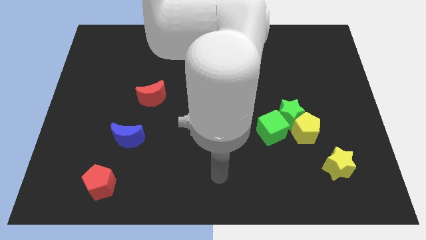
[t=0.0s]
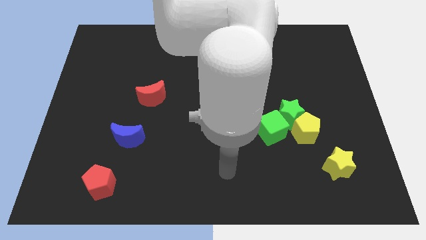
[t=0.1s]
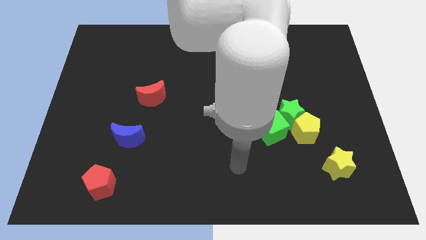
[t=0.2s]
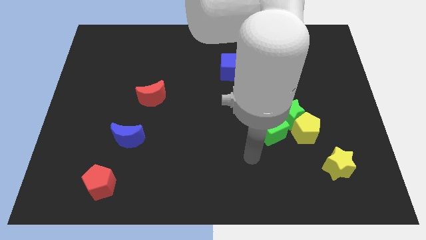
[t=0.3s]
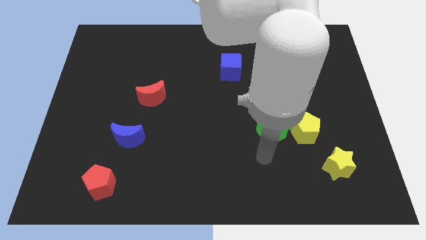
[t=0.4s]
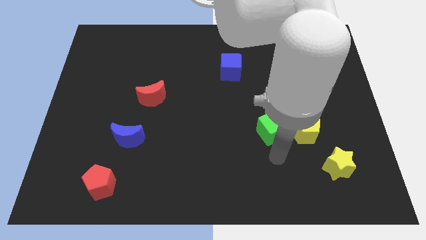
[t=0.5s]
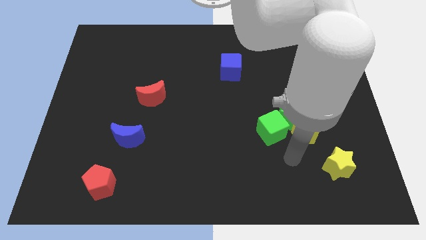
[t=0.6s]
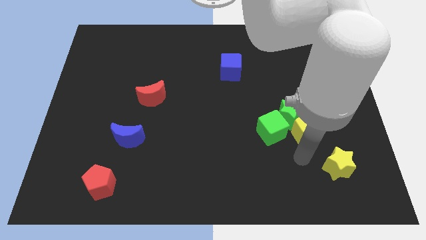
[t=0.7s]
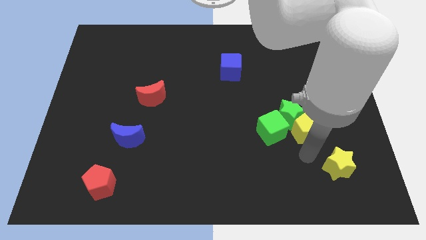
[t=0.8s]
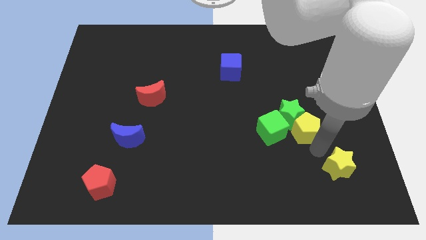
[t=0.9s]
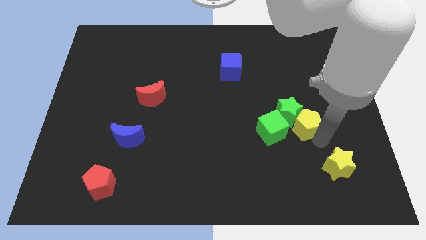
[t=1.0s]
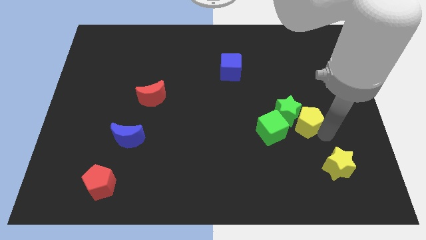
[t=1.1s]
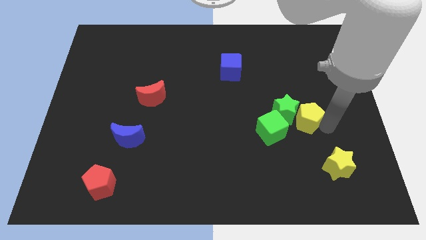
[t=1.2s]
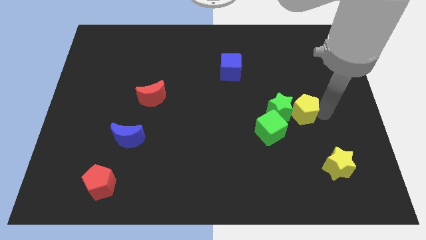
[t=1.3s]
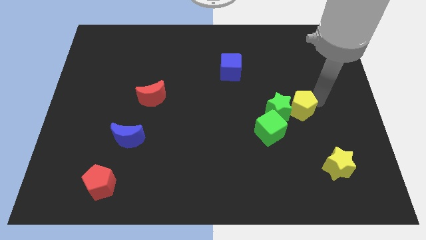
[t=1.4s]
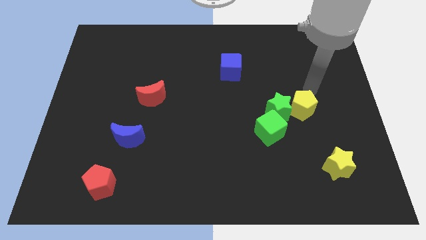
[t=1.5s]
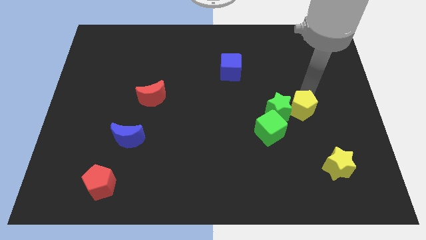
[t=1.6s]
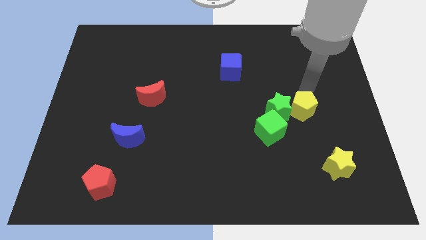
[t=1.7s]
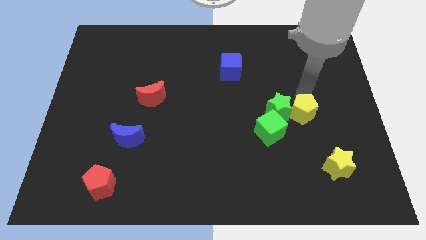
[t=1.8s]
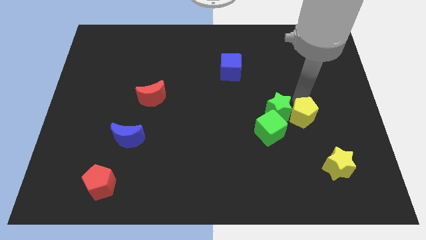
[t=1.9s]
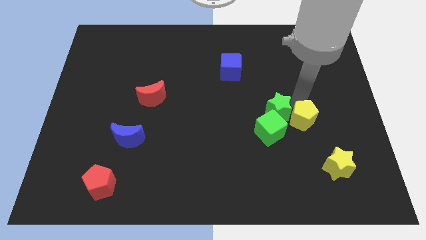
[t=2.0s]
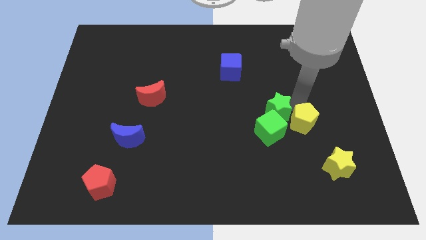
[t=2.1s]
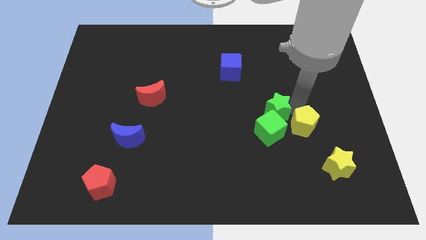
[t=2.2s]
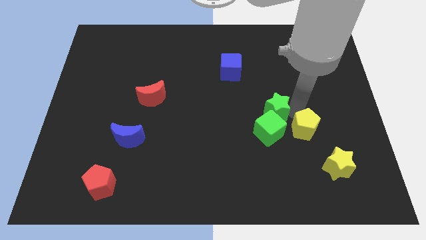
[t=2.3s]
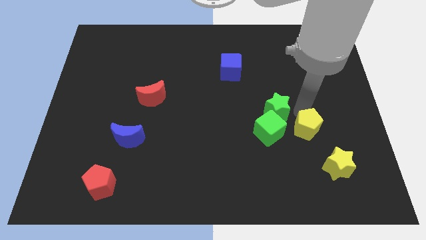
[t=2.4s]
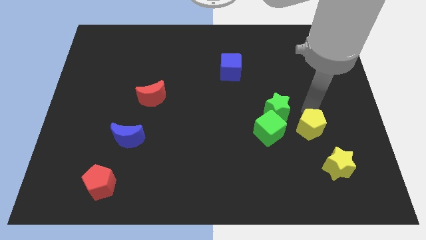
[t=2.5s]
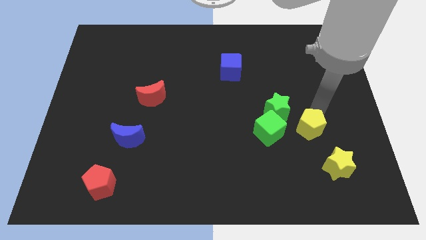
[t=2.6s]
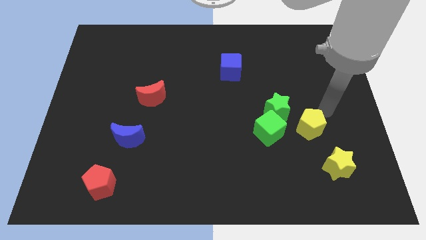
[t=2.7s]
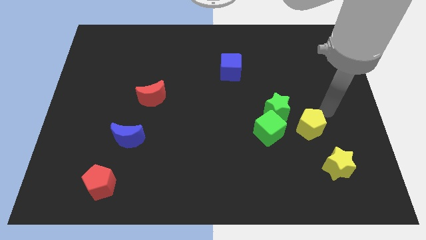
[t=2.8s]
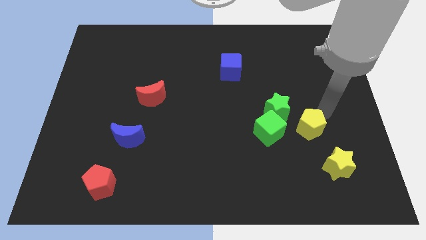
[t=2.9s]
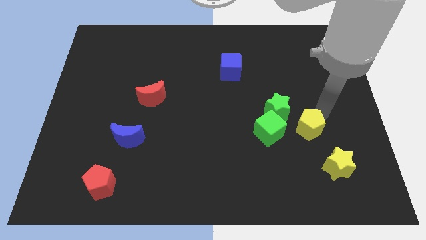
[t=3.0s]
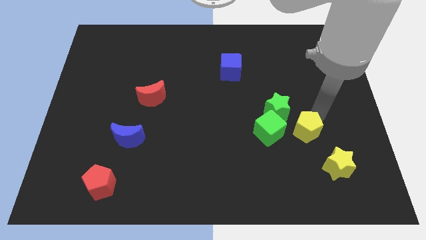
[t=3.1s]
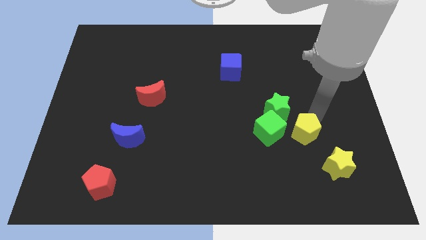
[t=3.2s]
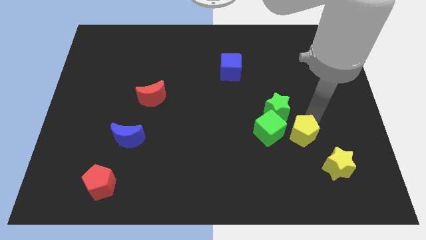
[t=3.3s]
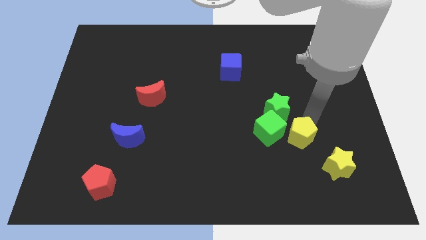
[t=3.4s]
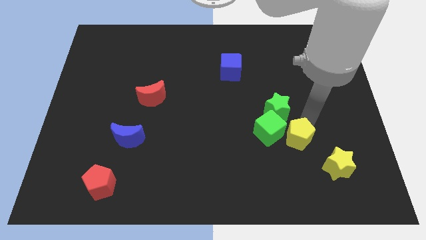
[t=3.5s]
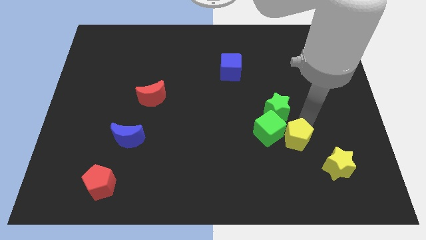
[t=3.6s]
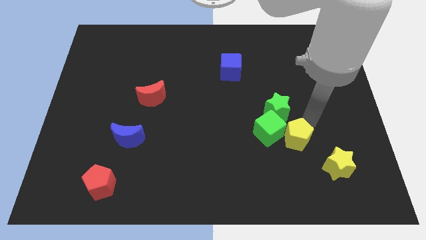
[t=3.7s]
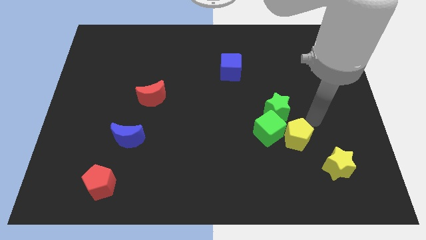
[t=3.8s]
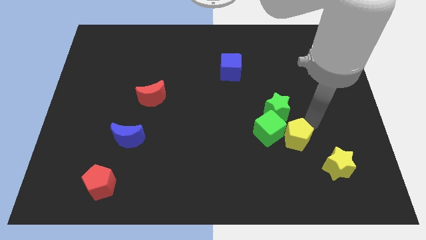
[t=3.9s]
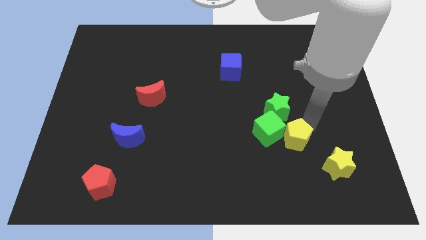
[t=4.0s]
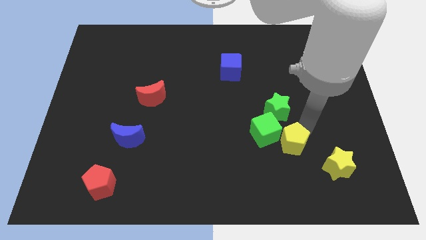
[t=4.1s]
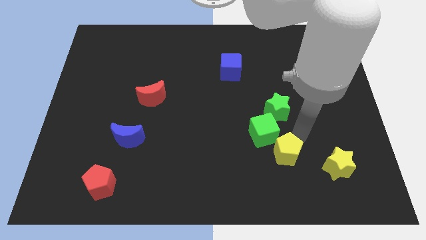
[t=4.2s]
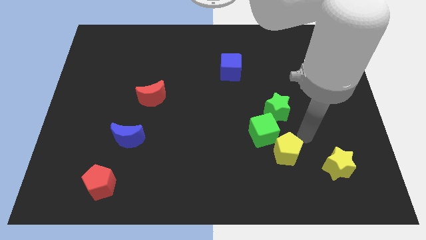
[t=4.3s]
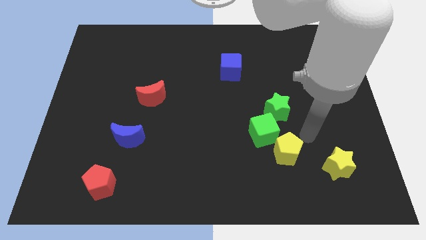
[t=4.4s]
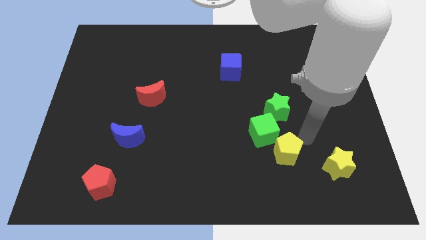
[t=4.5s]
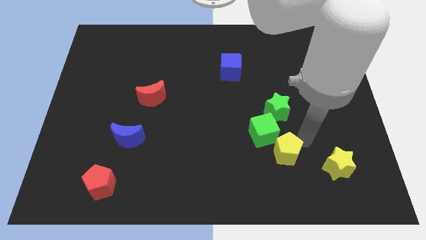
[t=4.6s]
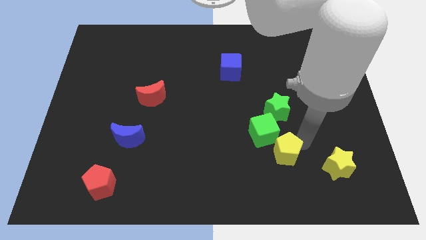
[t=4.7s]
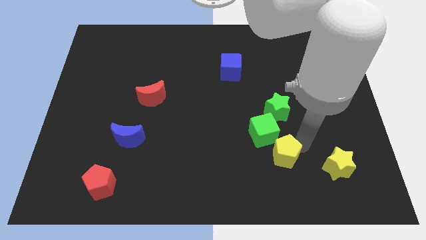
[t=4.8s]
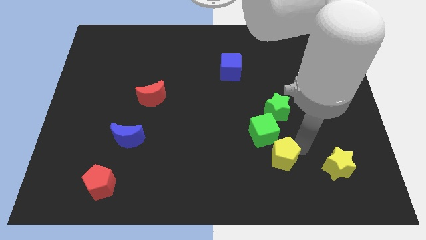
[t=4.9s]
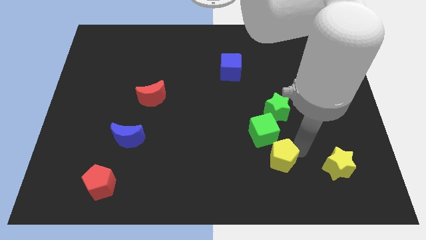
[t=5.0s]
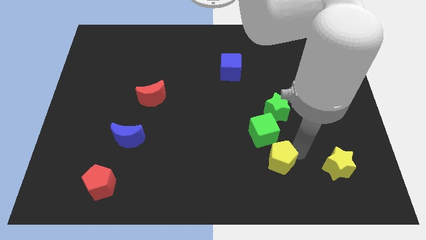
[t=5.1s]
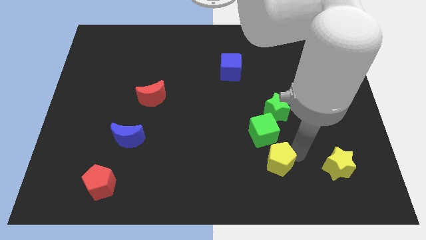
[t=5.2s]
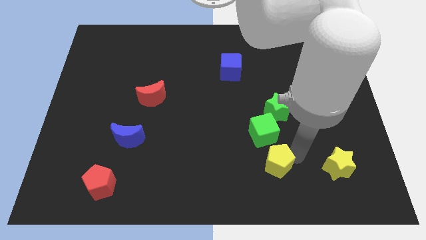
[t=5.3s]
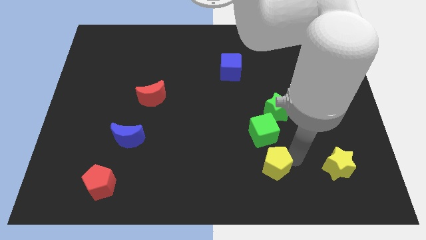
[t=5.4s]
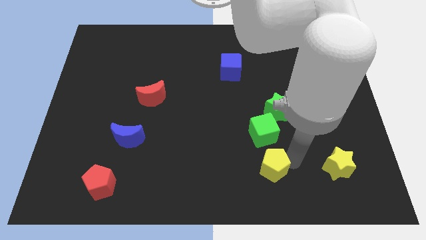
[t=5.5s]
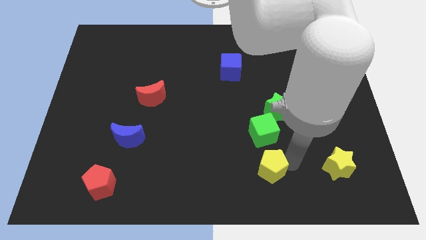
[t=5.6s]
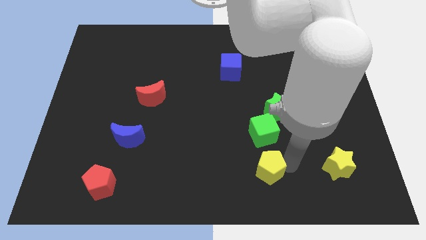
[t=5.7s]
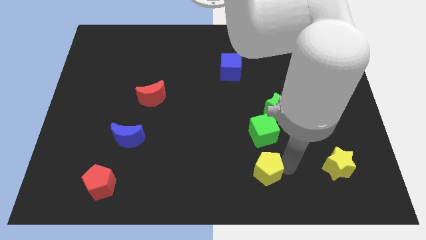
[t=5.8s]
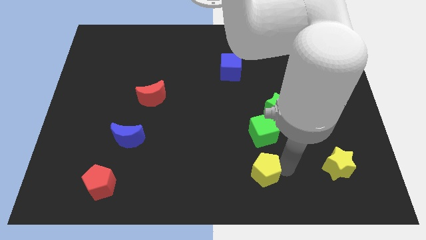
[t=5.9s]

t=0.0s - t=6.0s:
put the yellow pentagon to the bottom side
